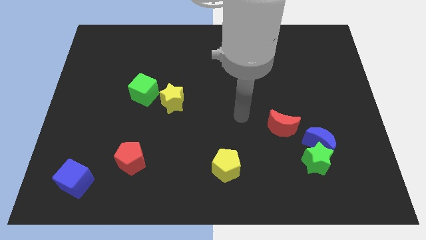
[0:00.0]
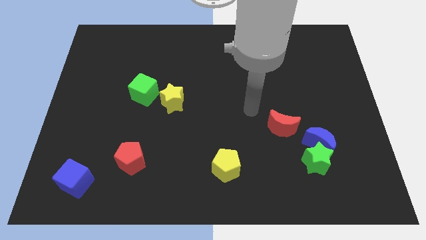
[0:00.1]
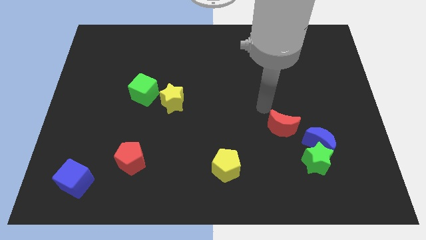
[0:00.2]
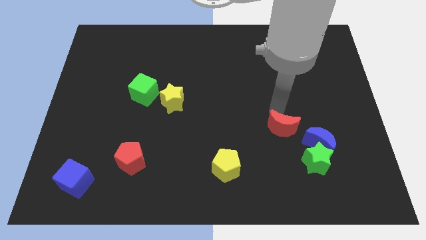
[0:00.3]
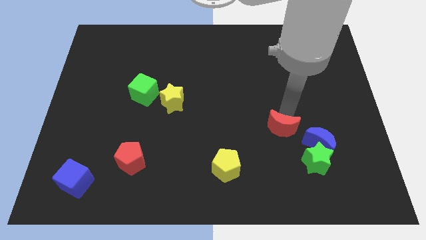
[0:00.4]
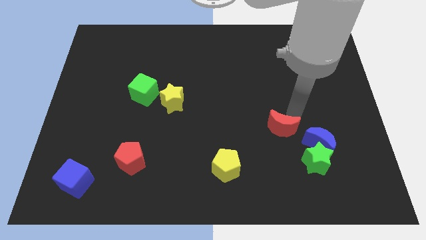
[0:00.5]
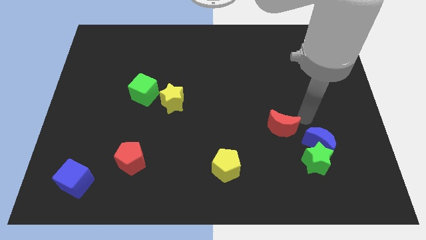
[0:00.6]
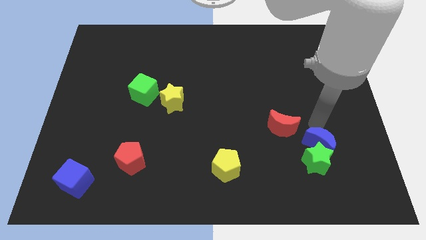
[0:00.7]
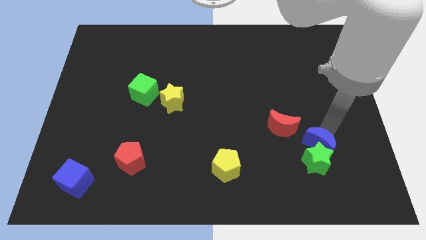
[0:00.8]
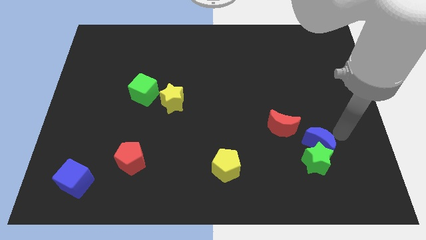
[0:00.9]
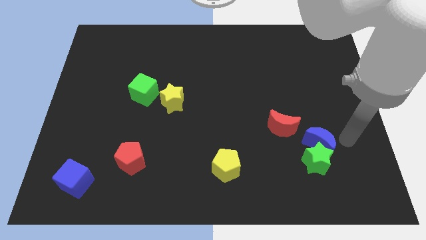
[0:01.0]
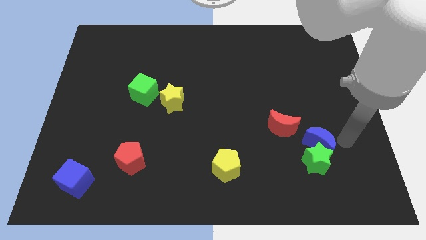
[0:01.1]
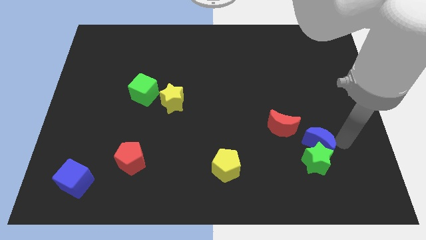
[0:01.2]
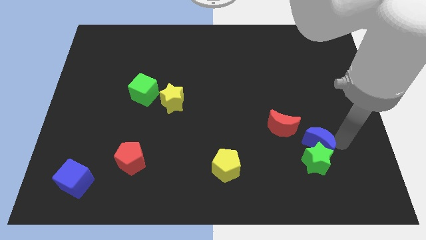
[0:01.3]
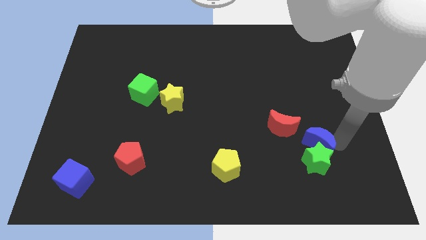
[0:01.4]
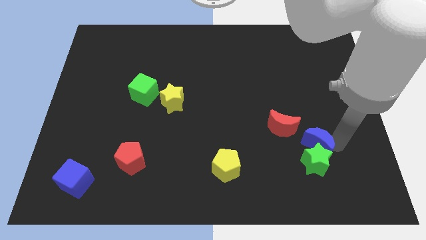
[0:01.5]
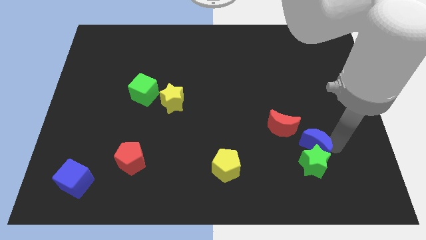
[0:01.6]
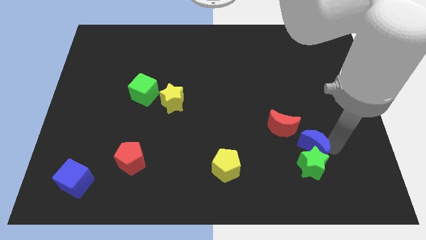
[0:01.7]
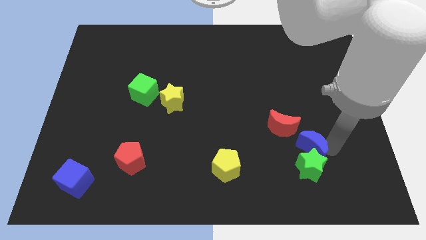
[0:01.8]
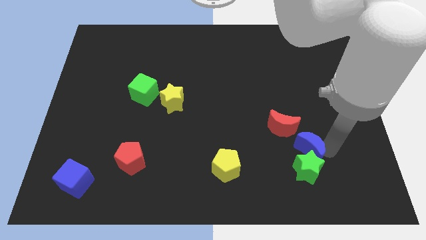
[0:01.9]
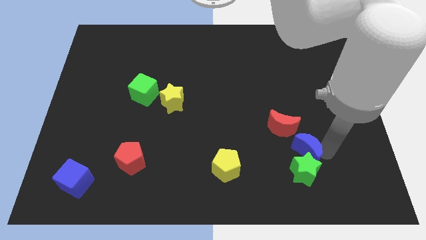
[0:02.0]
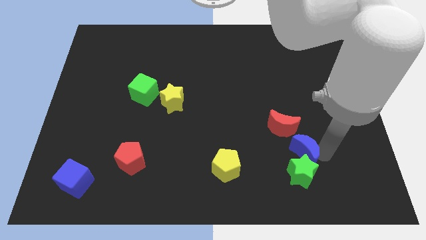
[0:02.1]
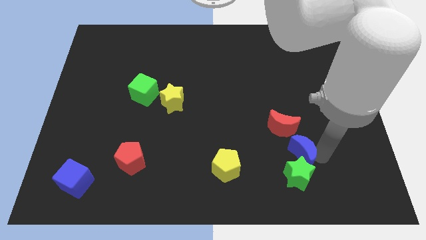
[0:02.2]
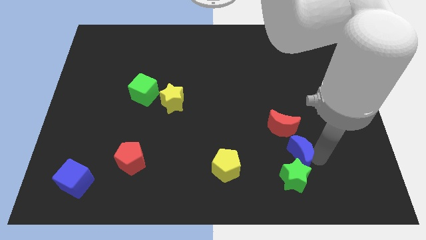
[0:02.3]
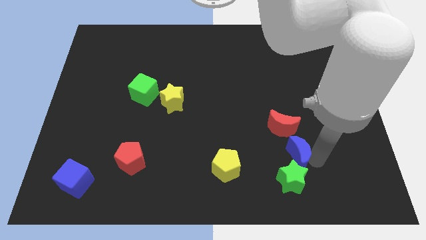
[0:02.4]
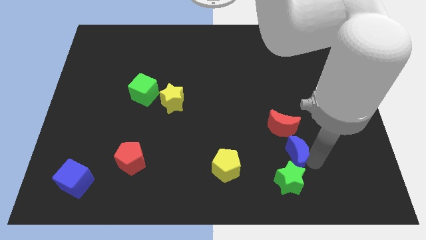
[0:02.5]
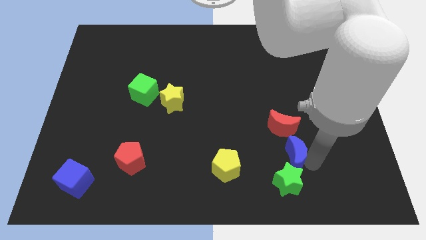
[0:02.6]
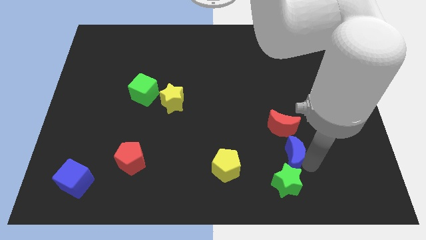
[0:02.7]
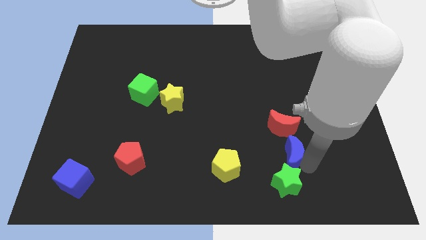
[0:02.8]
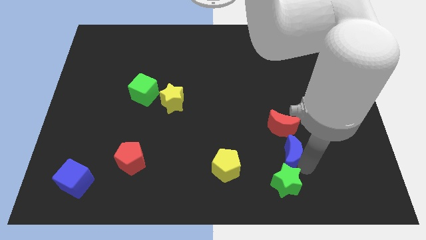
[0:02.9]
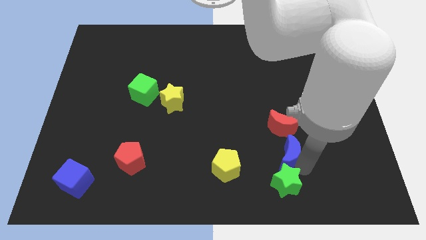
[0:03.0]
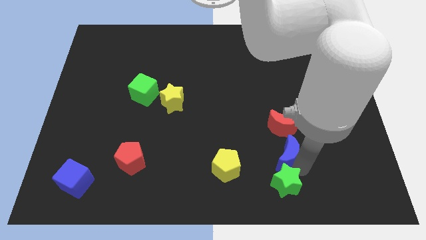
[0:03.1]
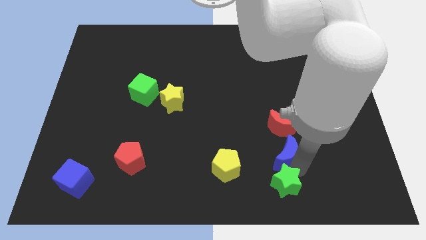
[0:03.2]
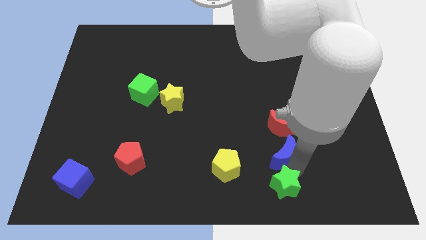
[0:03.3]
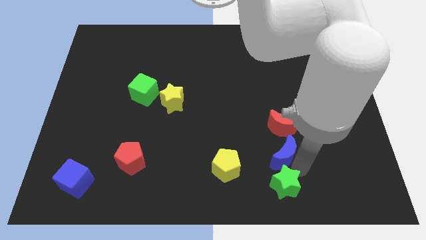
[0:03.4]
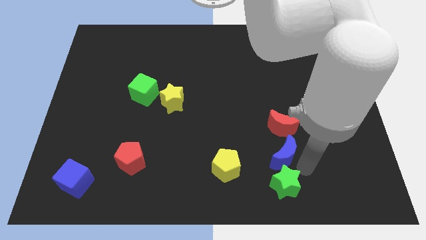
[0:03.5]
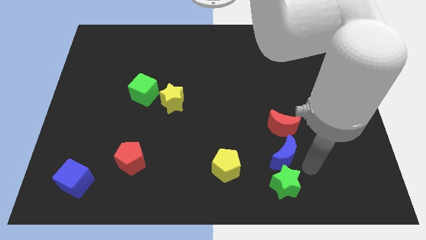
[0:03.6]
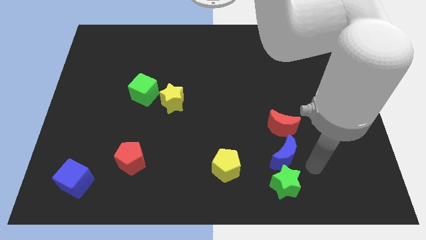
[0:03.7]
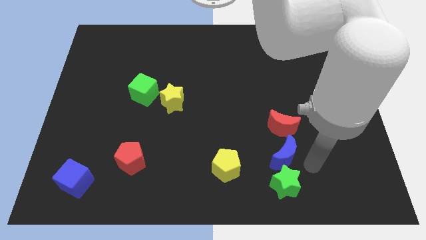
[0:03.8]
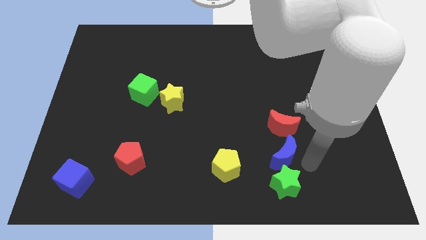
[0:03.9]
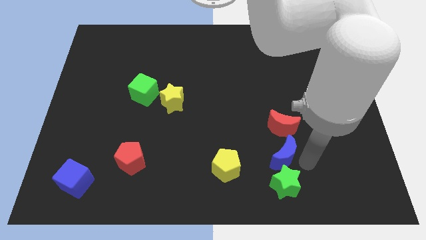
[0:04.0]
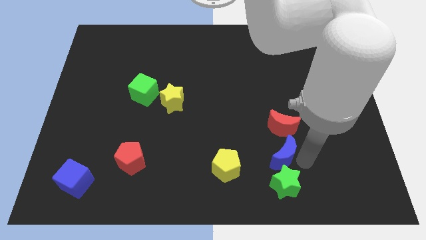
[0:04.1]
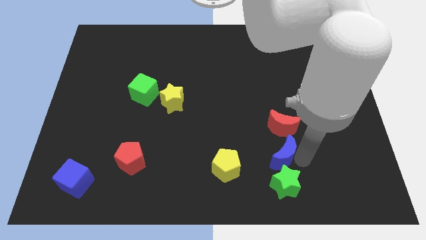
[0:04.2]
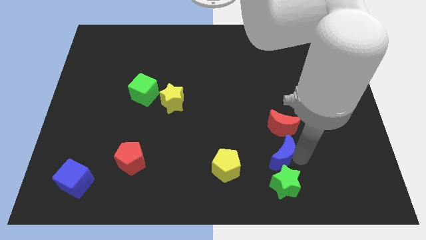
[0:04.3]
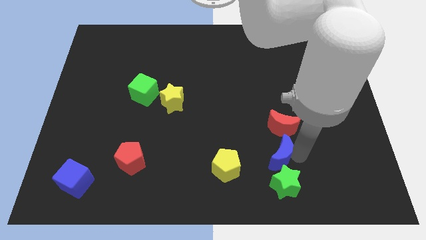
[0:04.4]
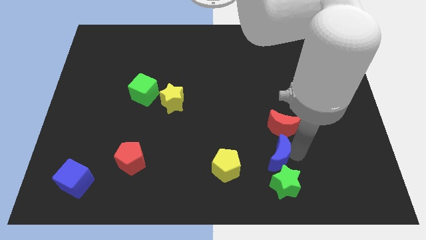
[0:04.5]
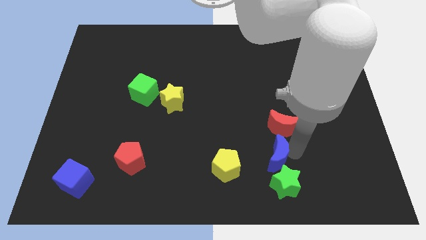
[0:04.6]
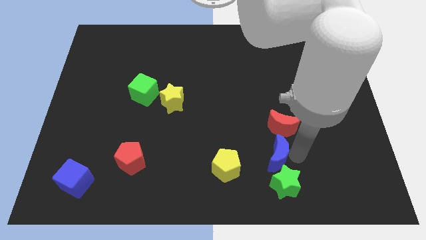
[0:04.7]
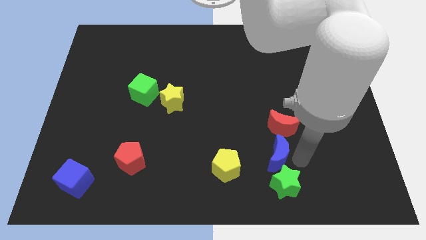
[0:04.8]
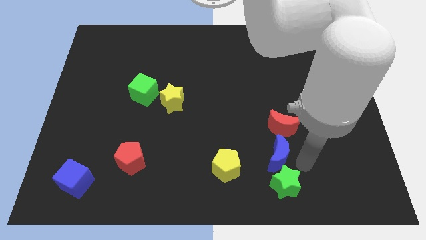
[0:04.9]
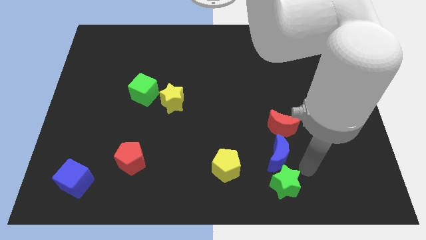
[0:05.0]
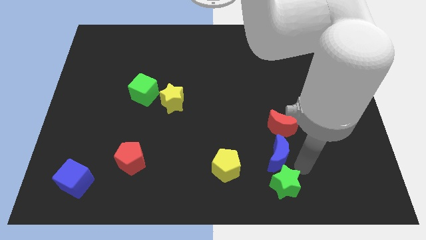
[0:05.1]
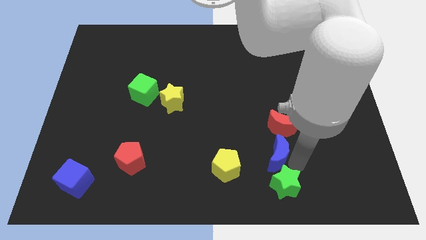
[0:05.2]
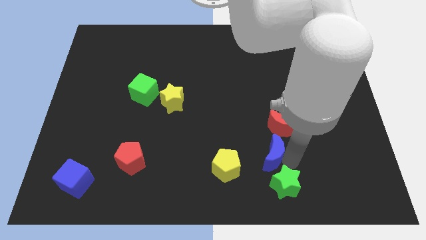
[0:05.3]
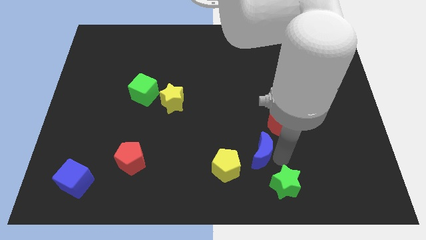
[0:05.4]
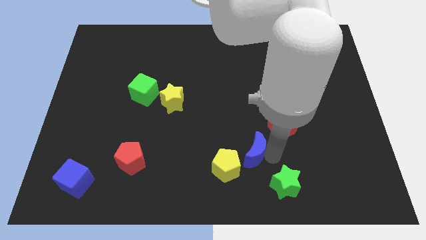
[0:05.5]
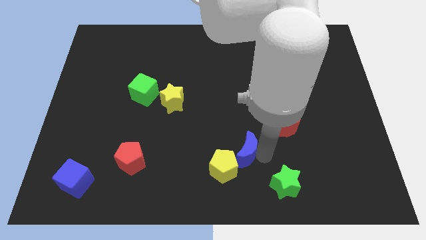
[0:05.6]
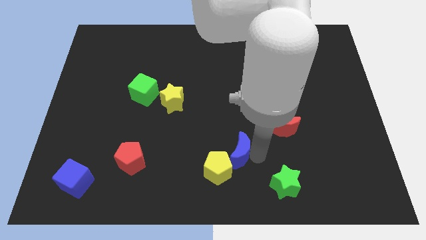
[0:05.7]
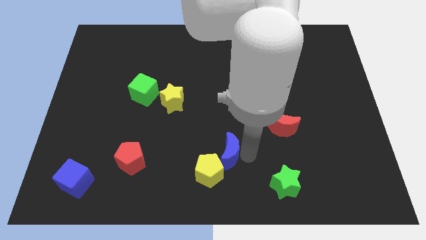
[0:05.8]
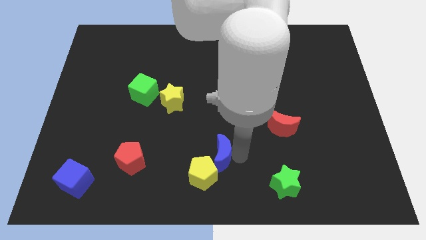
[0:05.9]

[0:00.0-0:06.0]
move the blue moon to the left

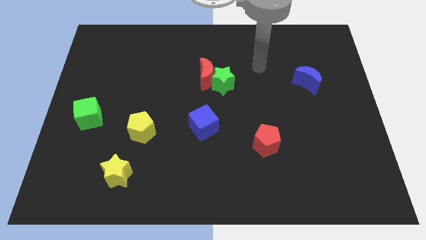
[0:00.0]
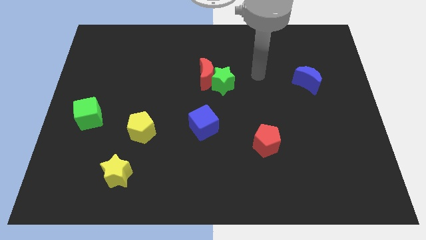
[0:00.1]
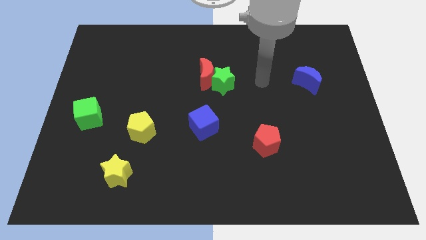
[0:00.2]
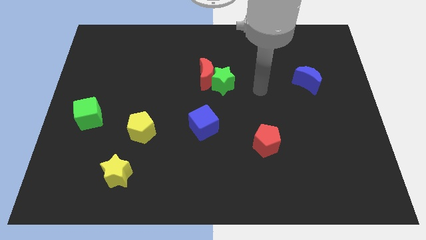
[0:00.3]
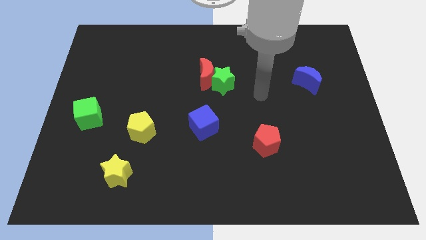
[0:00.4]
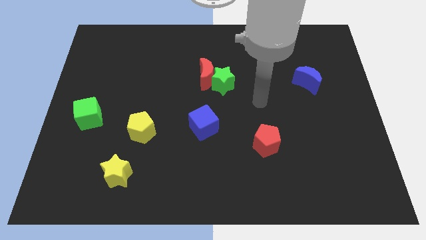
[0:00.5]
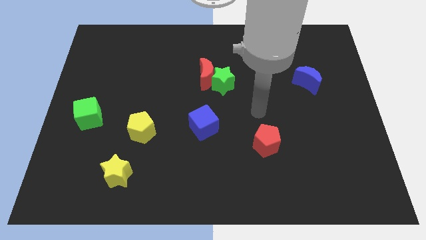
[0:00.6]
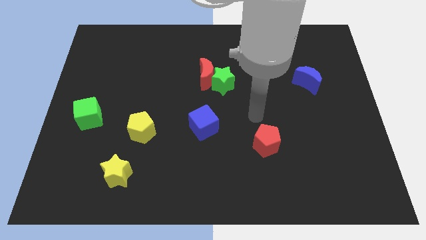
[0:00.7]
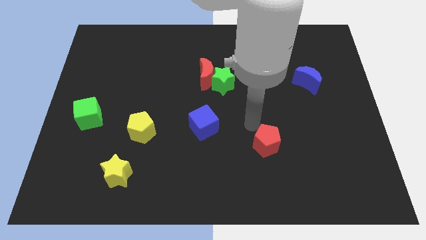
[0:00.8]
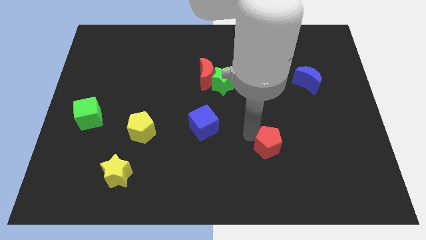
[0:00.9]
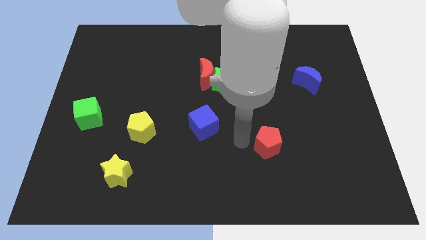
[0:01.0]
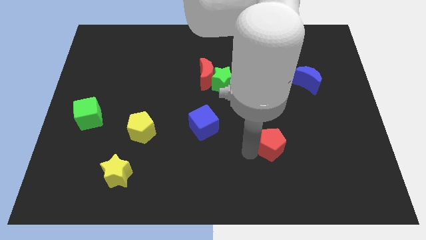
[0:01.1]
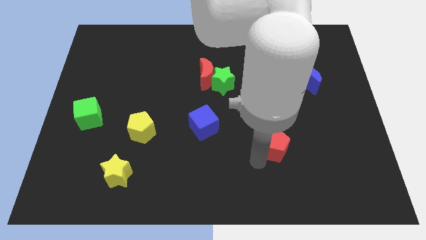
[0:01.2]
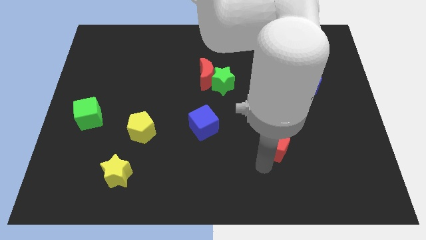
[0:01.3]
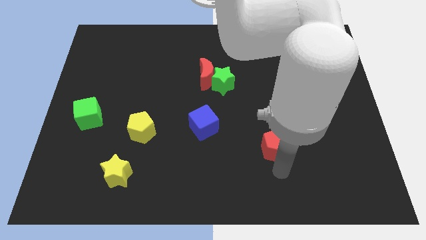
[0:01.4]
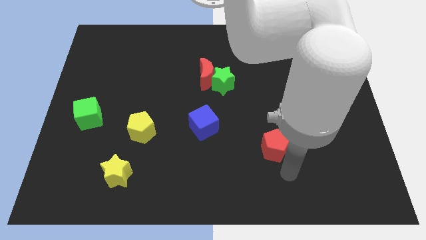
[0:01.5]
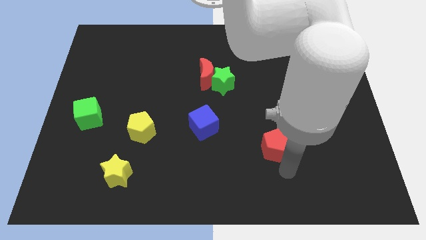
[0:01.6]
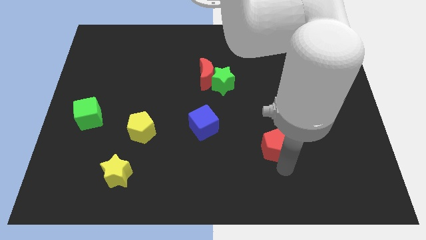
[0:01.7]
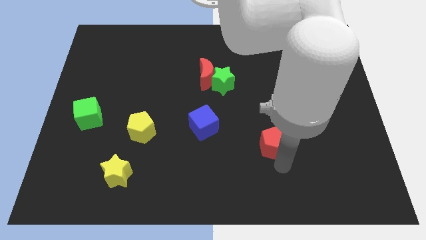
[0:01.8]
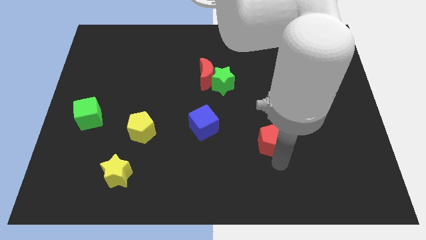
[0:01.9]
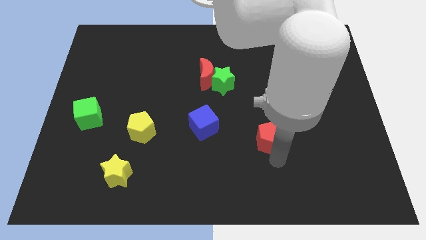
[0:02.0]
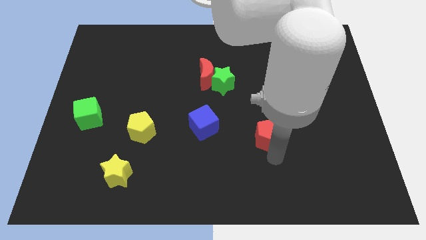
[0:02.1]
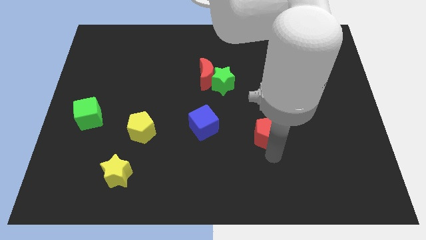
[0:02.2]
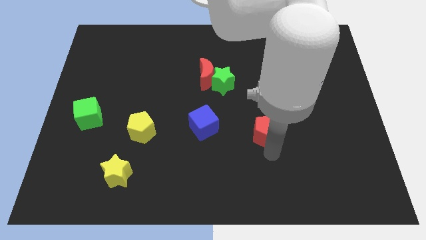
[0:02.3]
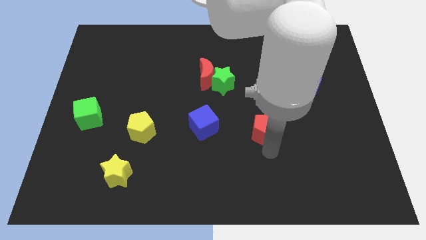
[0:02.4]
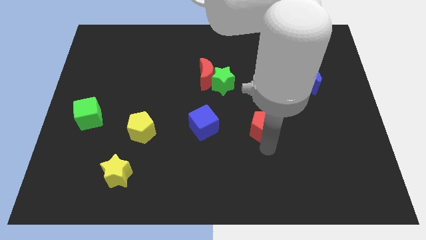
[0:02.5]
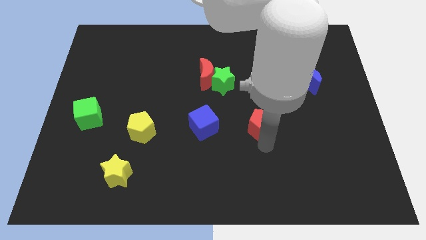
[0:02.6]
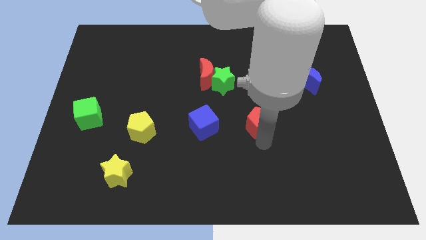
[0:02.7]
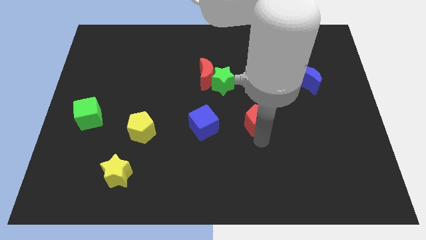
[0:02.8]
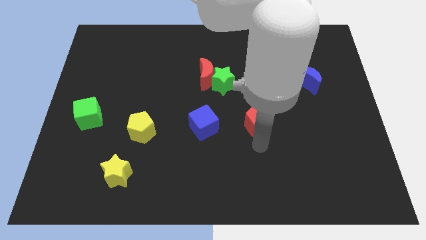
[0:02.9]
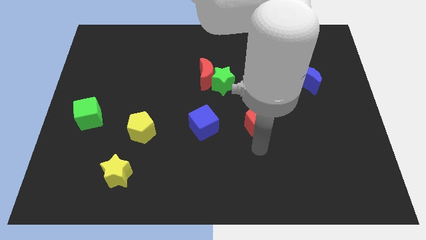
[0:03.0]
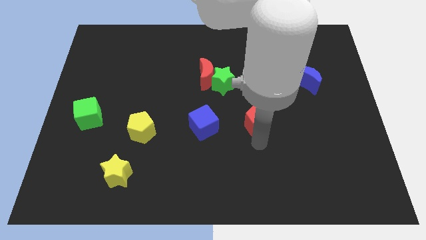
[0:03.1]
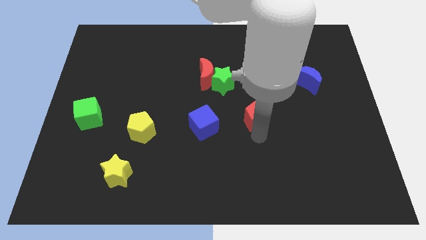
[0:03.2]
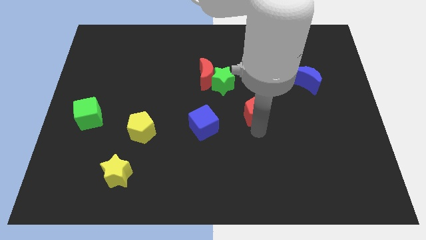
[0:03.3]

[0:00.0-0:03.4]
push the red pentagon upwards a little
